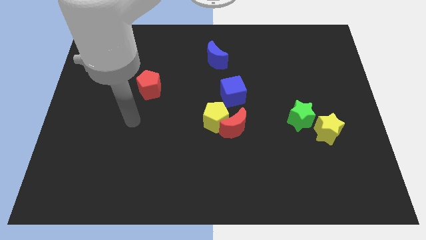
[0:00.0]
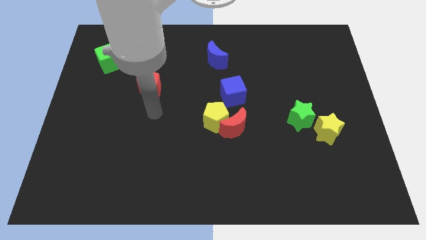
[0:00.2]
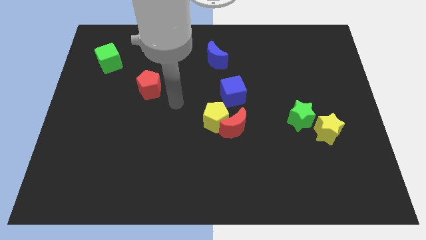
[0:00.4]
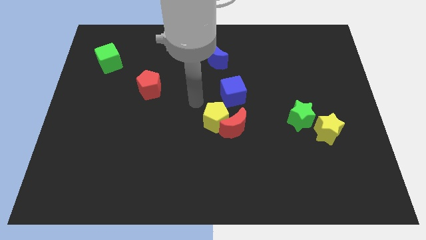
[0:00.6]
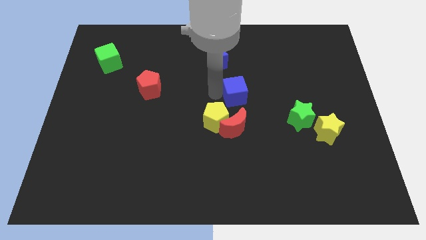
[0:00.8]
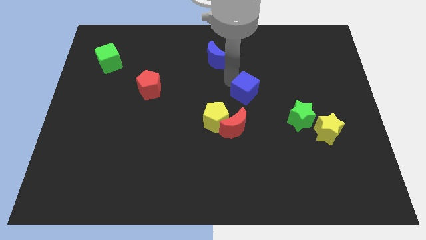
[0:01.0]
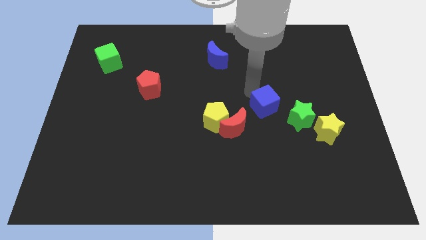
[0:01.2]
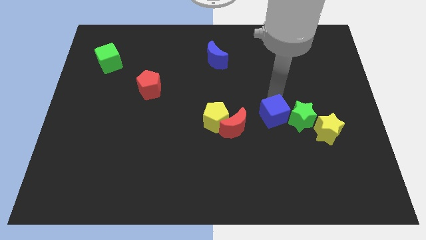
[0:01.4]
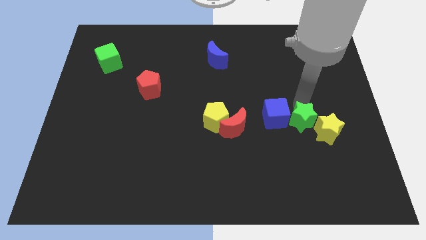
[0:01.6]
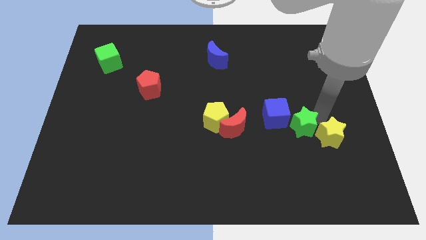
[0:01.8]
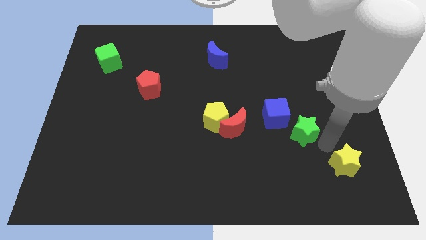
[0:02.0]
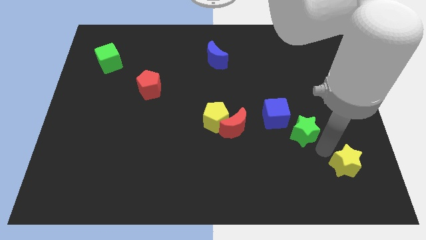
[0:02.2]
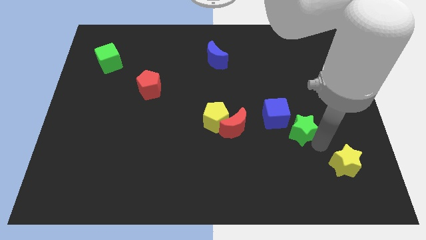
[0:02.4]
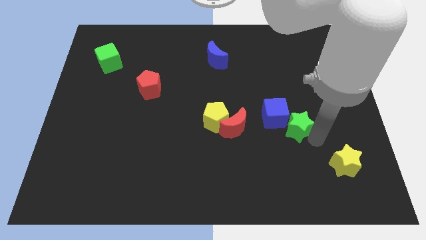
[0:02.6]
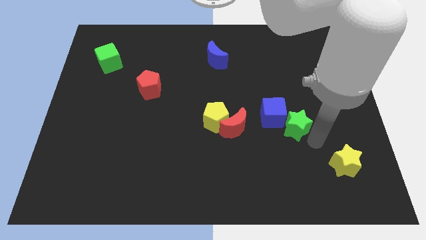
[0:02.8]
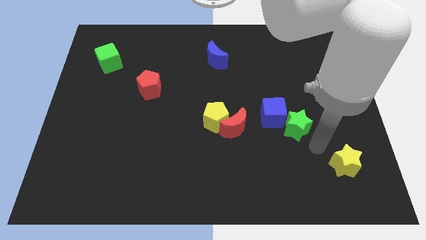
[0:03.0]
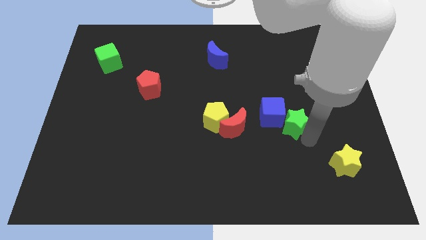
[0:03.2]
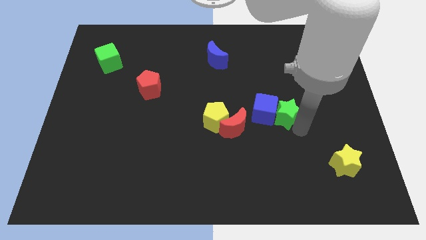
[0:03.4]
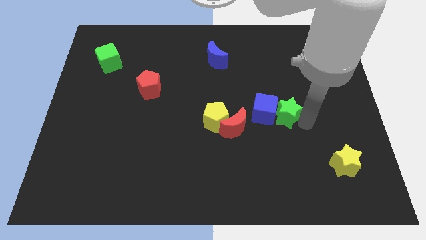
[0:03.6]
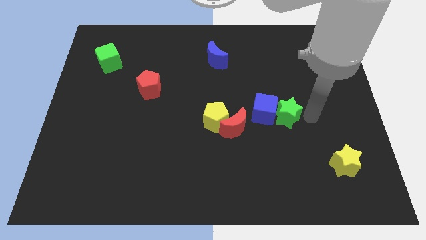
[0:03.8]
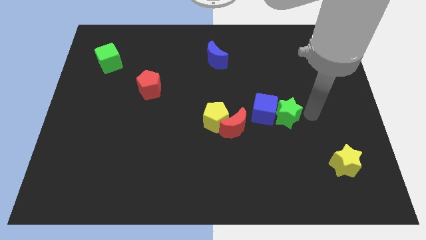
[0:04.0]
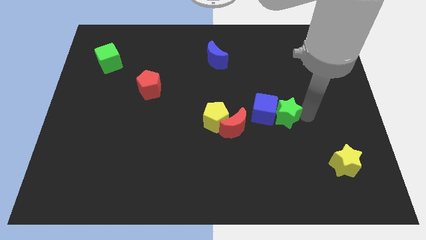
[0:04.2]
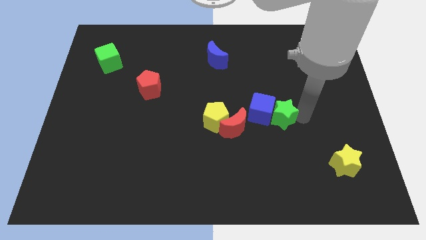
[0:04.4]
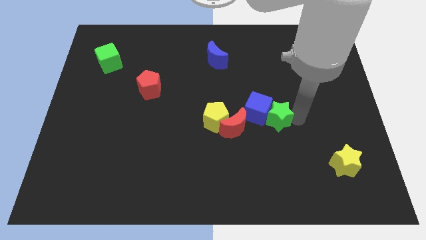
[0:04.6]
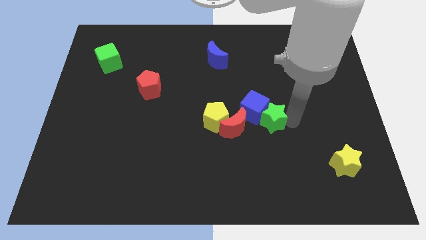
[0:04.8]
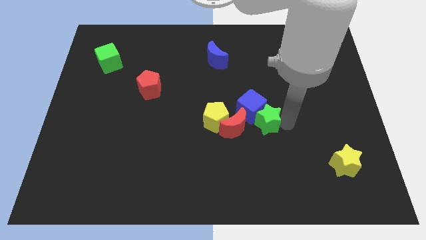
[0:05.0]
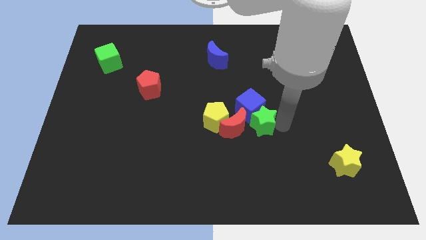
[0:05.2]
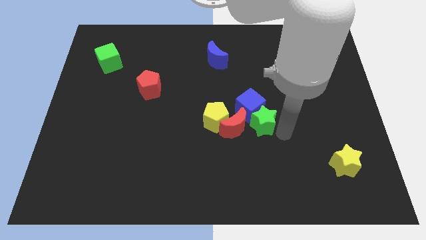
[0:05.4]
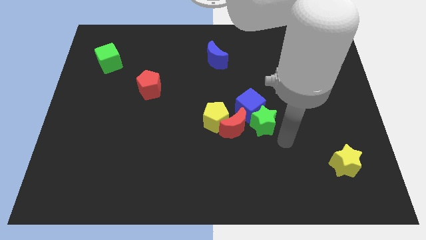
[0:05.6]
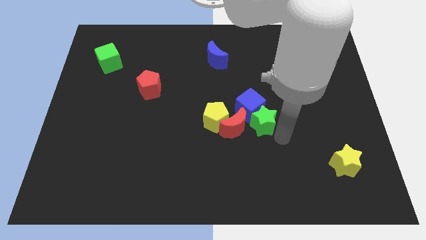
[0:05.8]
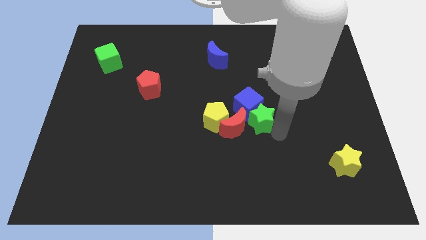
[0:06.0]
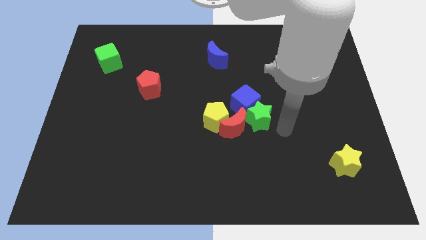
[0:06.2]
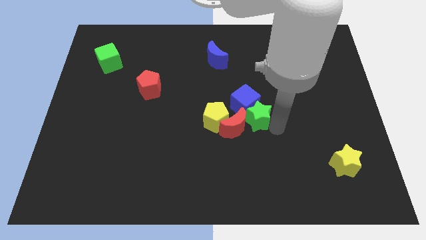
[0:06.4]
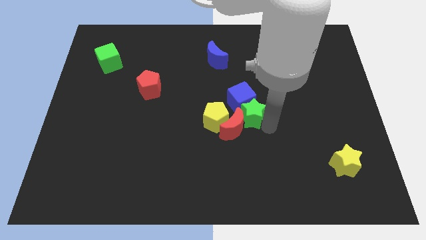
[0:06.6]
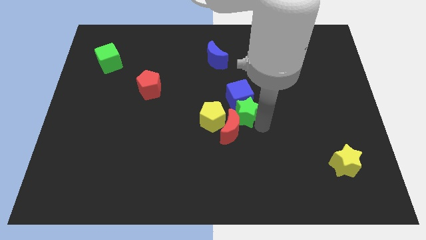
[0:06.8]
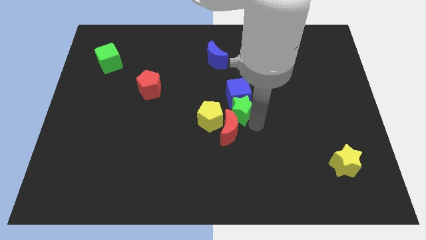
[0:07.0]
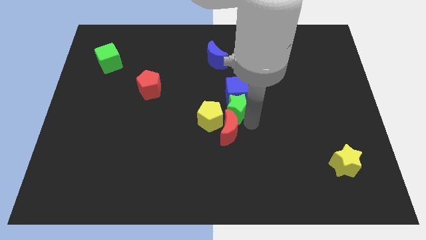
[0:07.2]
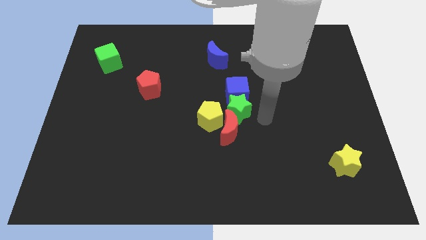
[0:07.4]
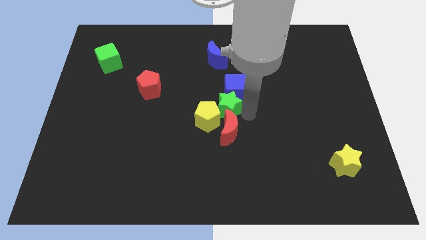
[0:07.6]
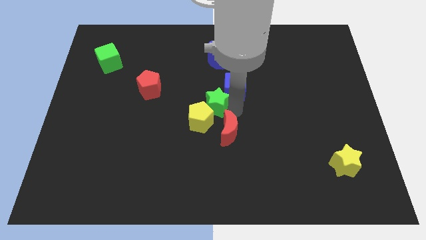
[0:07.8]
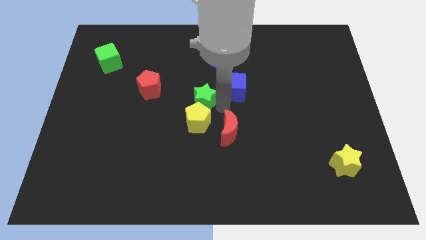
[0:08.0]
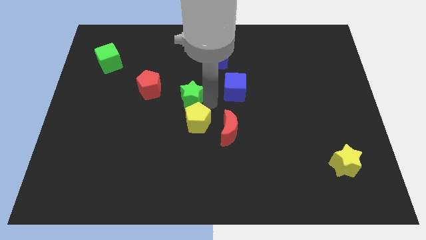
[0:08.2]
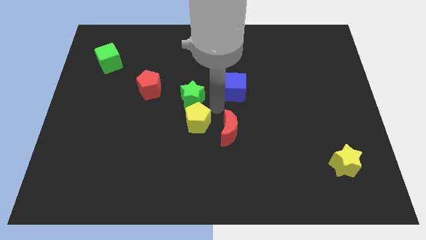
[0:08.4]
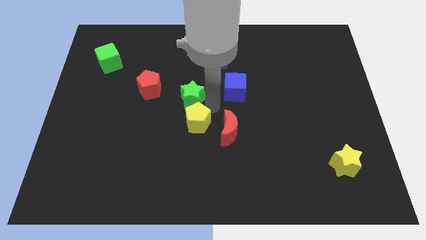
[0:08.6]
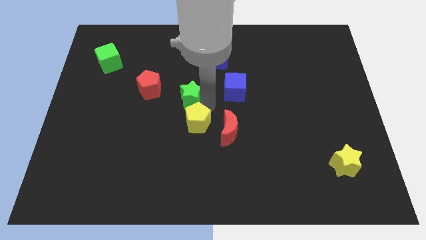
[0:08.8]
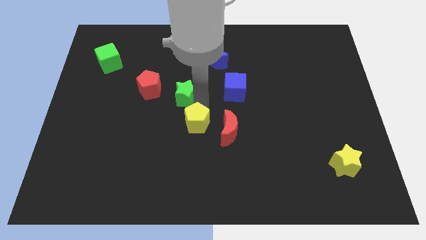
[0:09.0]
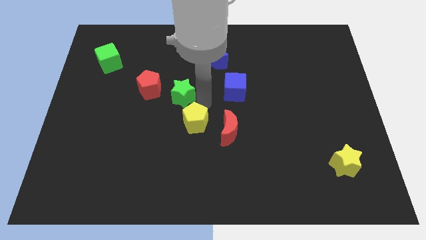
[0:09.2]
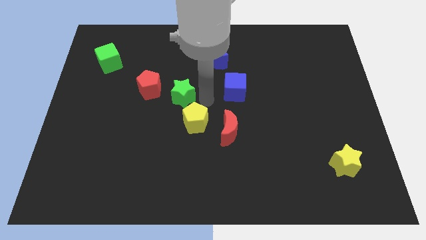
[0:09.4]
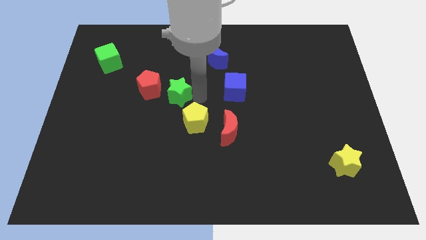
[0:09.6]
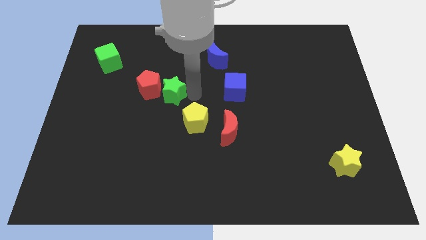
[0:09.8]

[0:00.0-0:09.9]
push the green star towards the red pentagon
